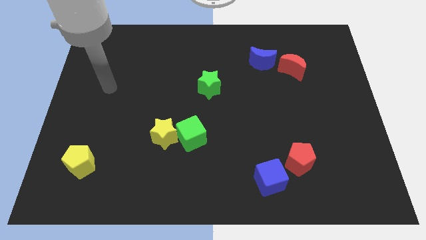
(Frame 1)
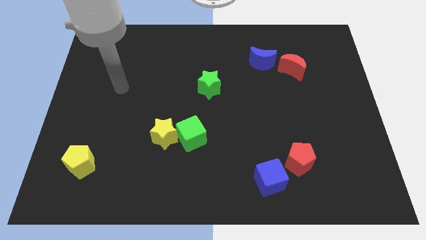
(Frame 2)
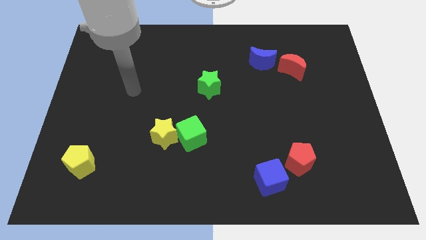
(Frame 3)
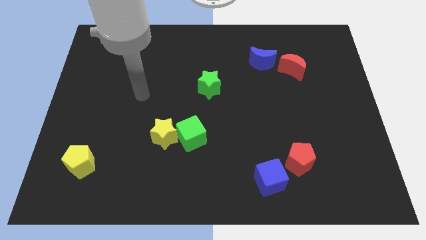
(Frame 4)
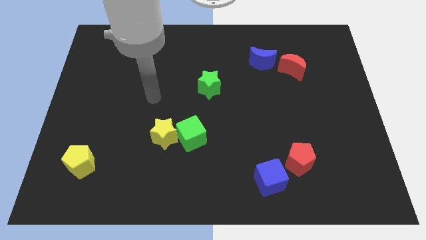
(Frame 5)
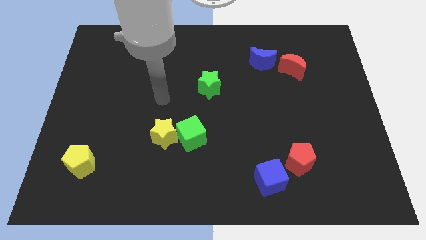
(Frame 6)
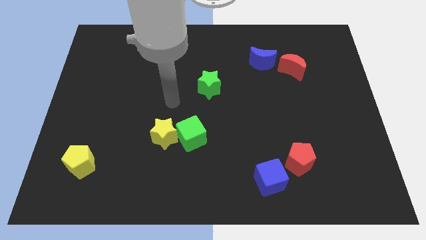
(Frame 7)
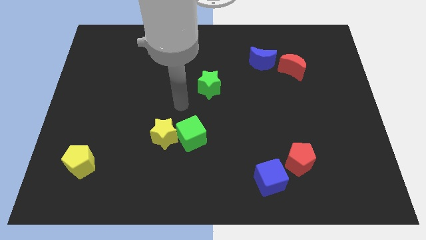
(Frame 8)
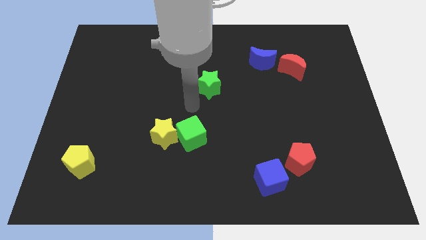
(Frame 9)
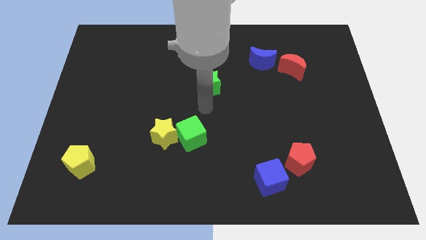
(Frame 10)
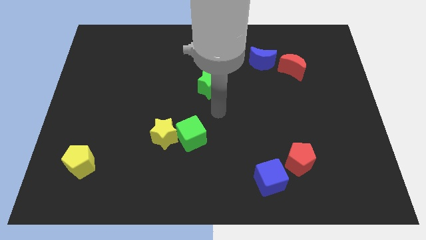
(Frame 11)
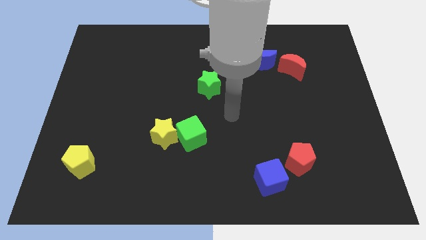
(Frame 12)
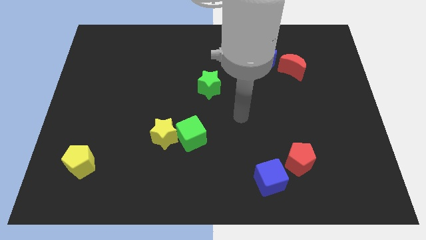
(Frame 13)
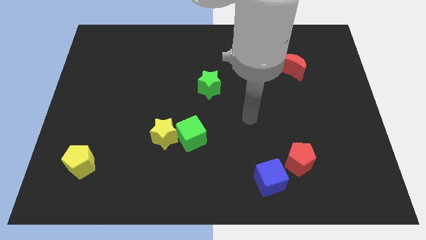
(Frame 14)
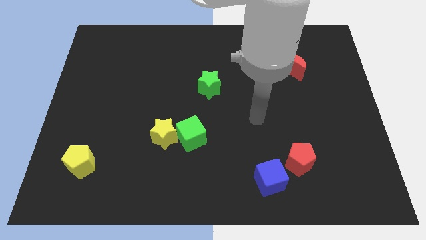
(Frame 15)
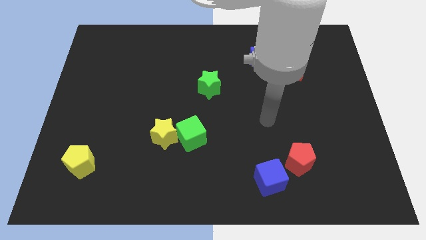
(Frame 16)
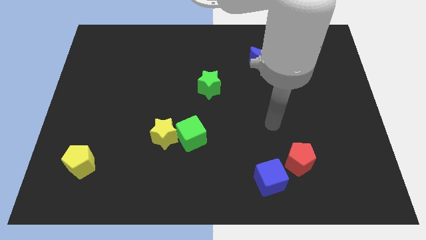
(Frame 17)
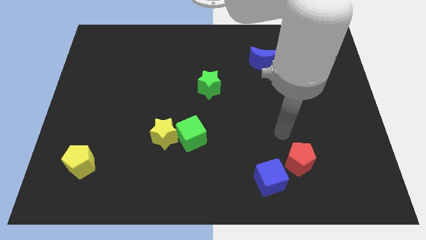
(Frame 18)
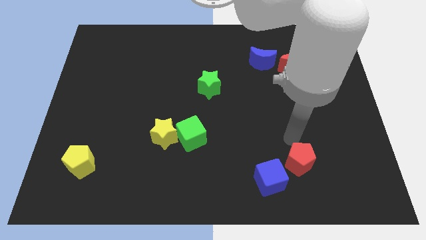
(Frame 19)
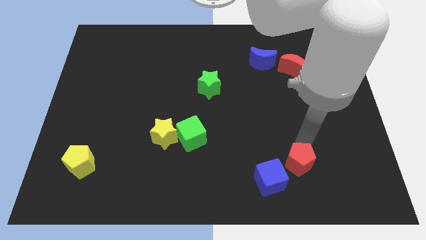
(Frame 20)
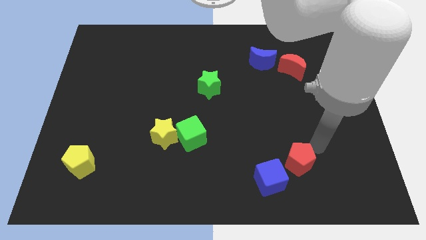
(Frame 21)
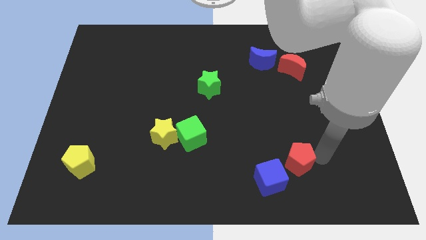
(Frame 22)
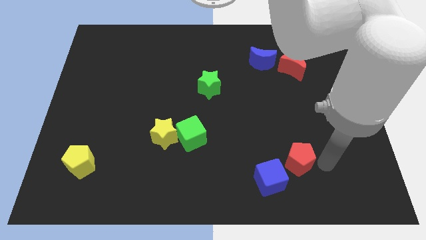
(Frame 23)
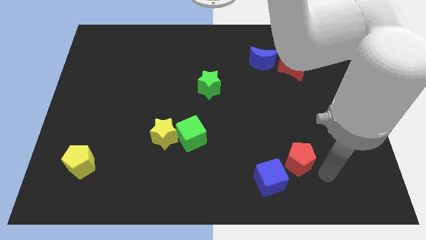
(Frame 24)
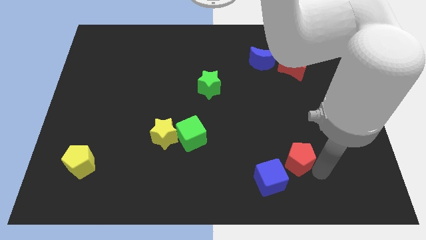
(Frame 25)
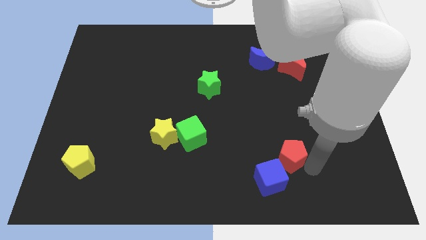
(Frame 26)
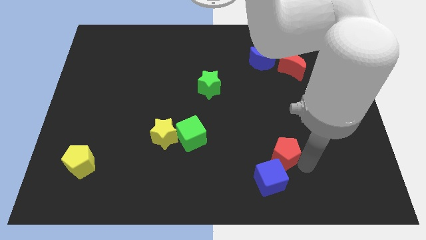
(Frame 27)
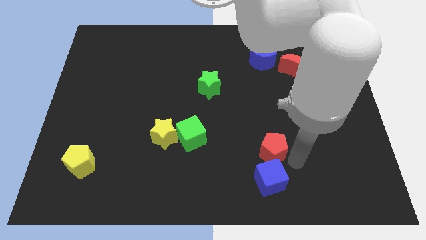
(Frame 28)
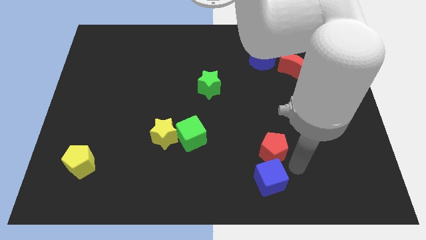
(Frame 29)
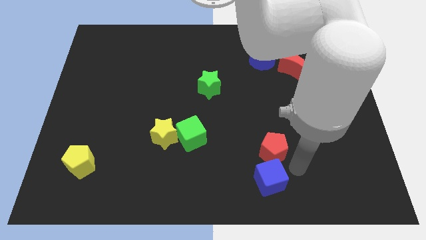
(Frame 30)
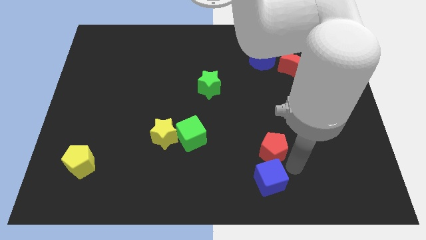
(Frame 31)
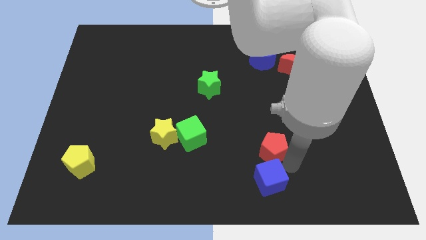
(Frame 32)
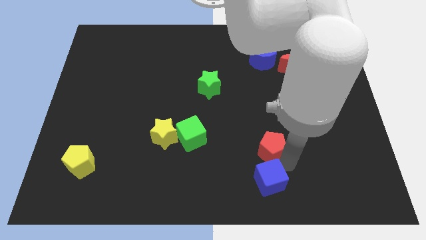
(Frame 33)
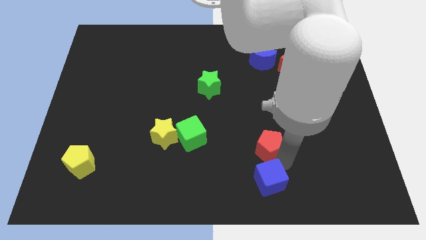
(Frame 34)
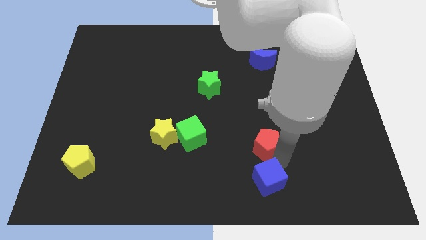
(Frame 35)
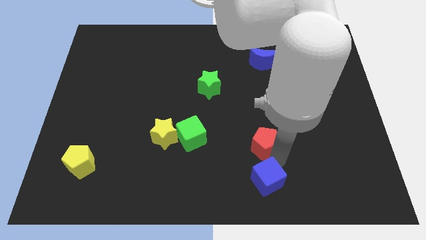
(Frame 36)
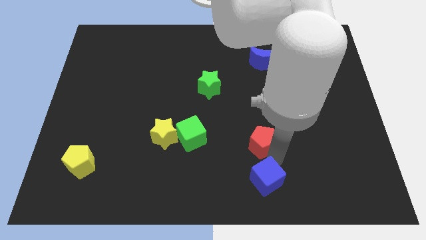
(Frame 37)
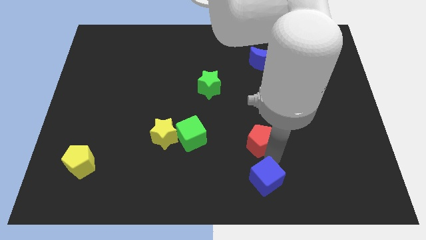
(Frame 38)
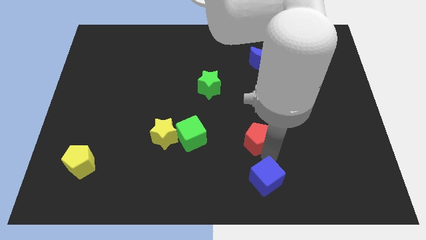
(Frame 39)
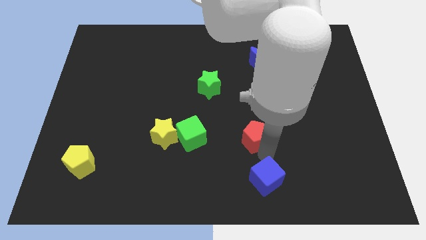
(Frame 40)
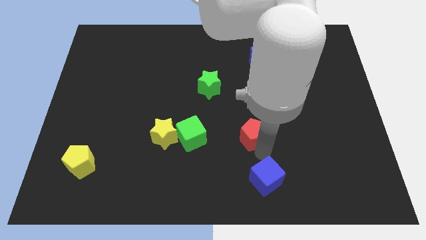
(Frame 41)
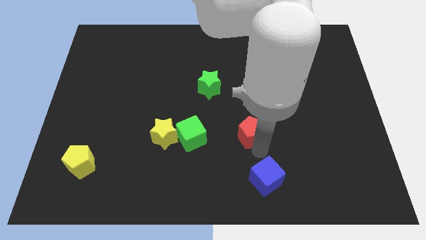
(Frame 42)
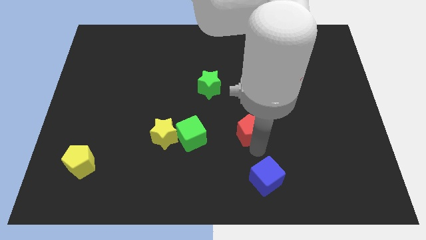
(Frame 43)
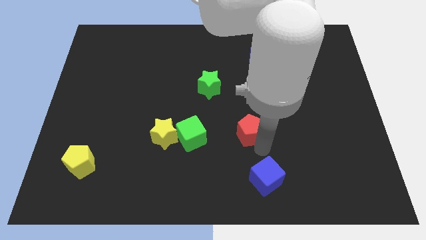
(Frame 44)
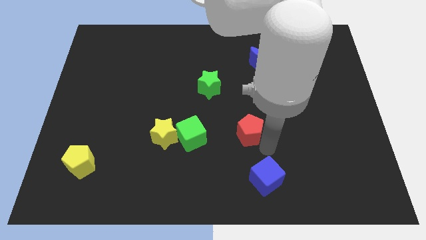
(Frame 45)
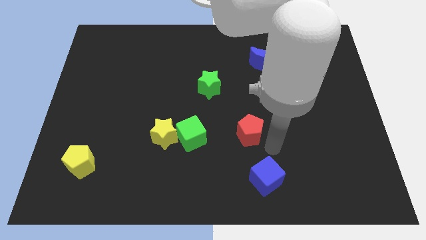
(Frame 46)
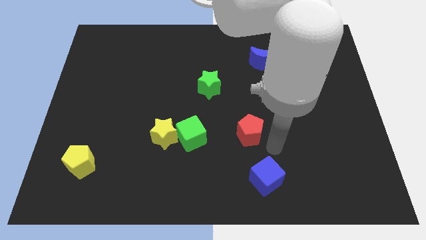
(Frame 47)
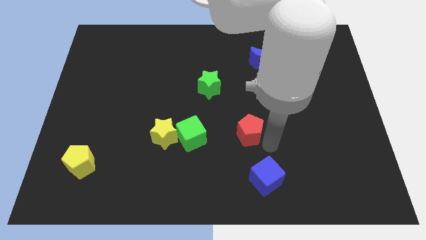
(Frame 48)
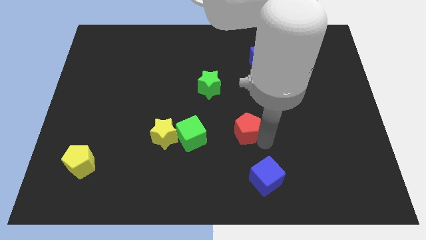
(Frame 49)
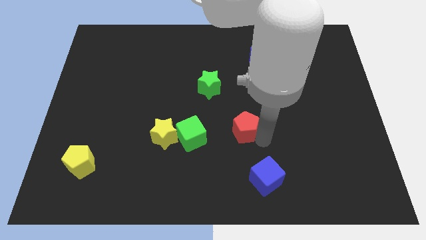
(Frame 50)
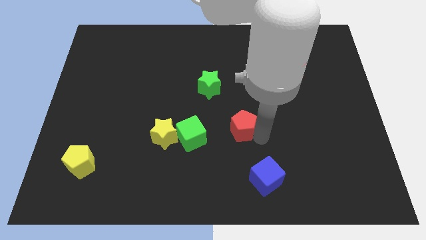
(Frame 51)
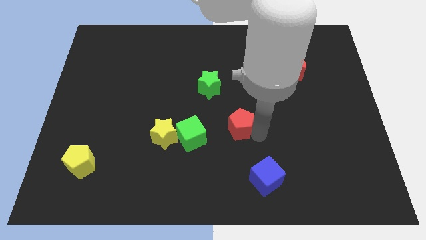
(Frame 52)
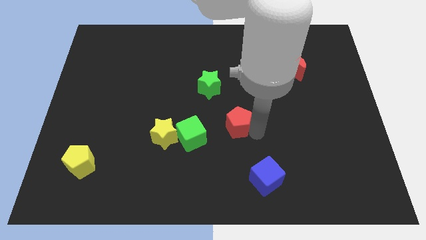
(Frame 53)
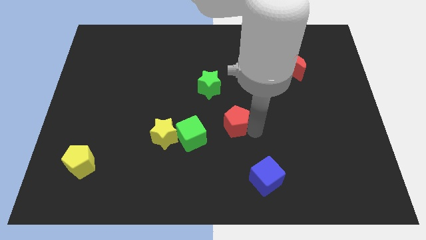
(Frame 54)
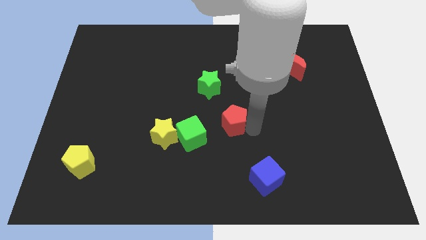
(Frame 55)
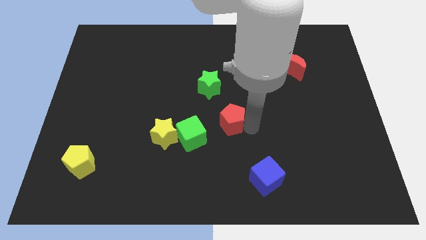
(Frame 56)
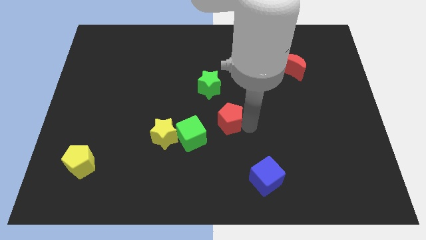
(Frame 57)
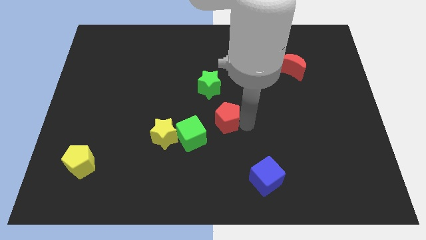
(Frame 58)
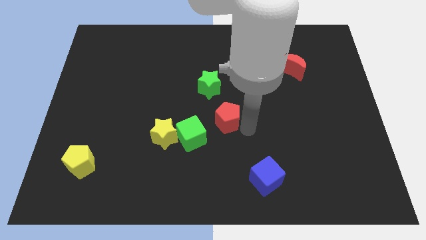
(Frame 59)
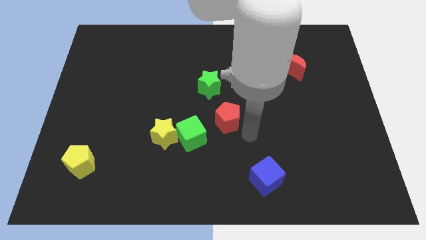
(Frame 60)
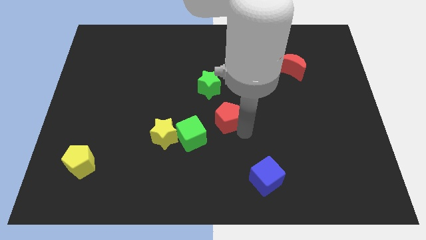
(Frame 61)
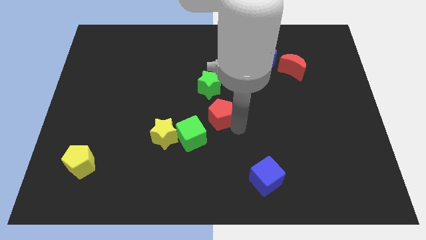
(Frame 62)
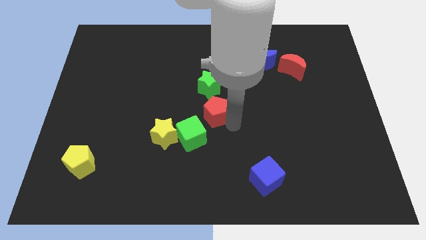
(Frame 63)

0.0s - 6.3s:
push the red pentagon diagonally up and to the left

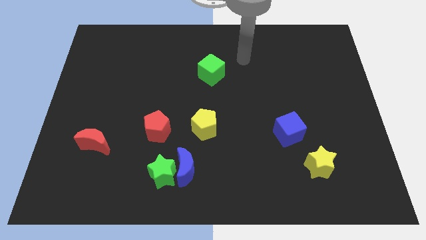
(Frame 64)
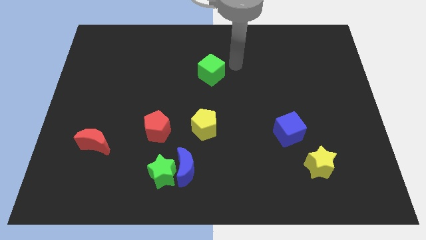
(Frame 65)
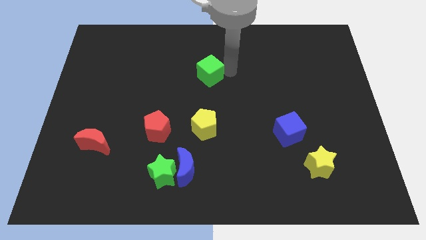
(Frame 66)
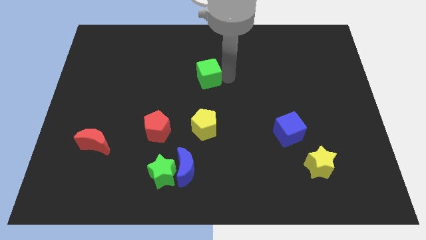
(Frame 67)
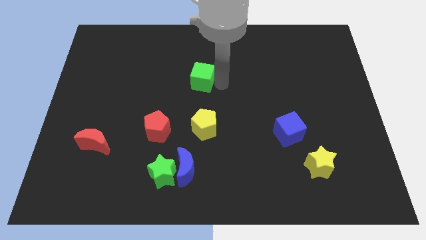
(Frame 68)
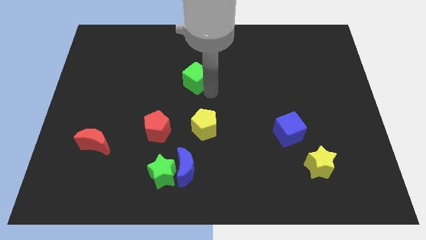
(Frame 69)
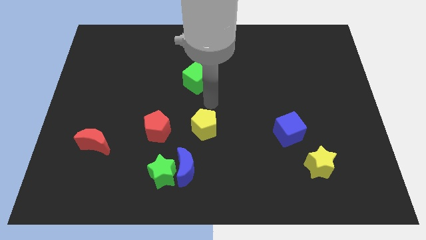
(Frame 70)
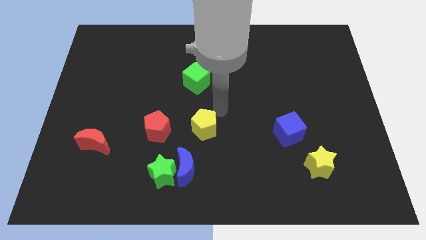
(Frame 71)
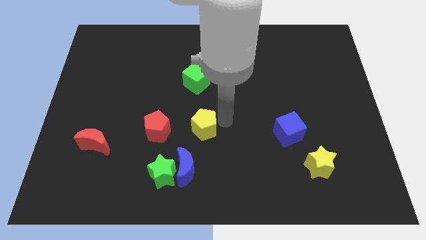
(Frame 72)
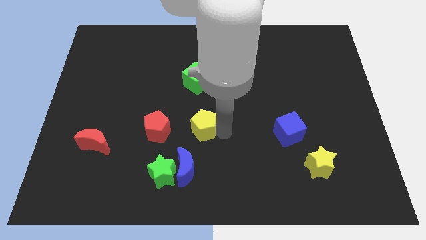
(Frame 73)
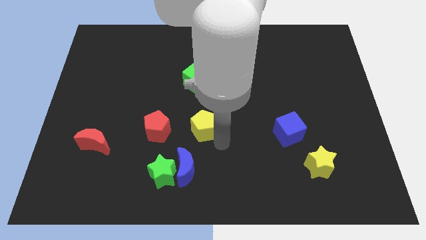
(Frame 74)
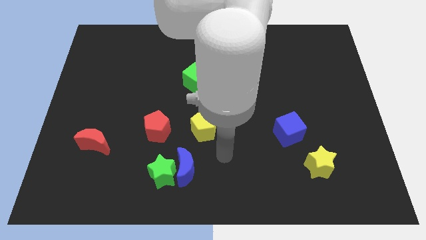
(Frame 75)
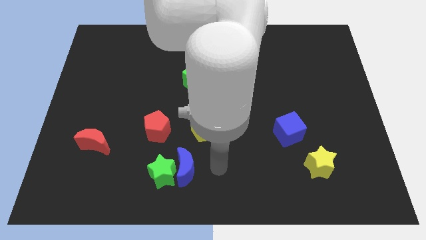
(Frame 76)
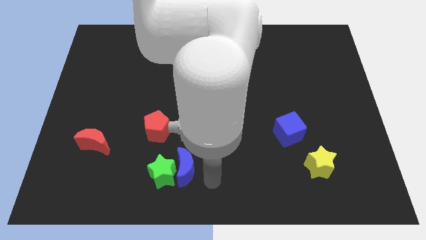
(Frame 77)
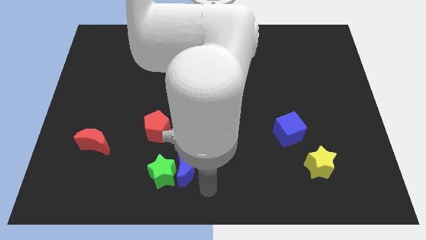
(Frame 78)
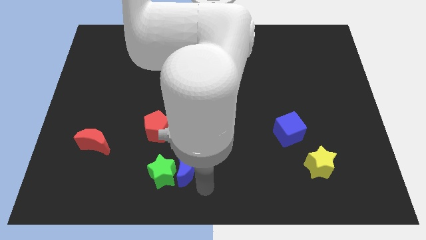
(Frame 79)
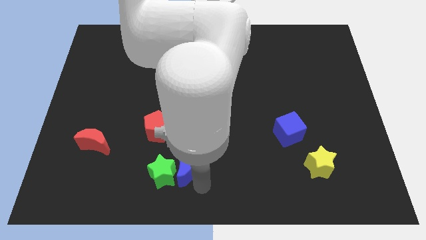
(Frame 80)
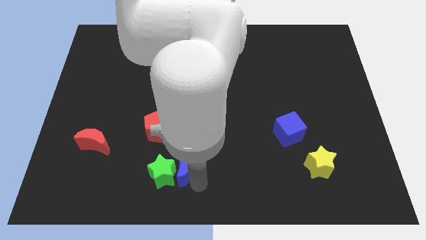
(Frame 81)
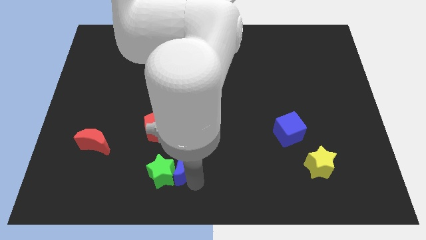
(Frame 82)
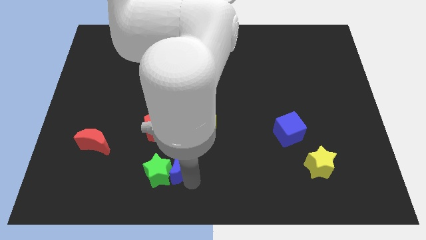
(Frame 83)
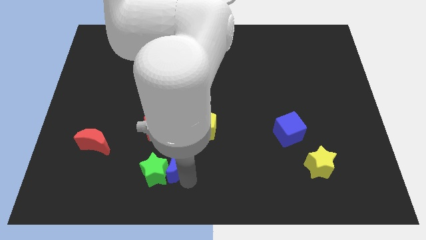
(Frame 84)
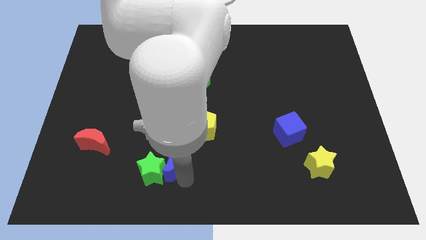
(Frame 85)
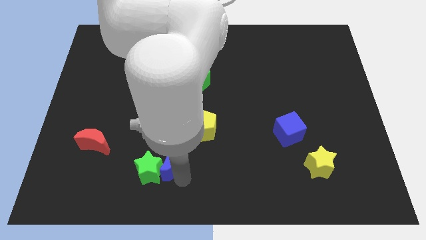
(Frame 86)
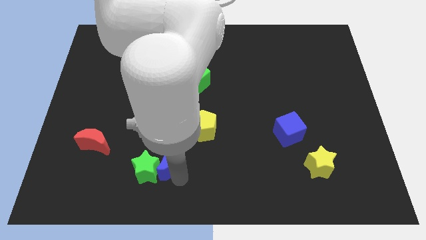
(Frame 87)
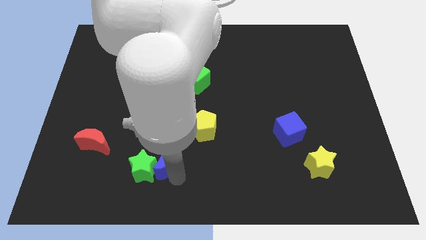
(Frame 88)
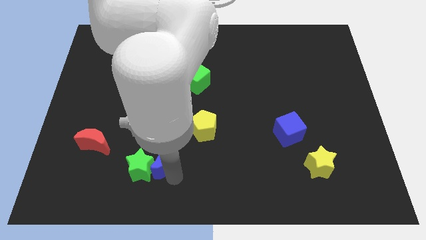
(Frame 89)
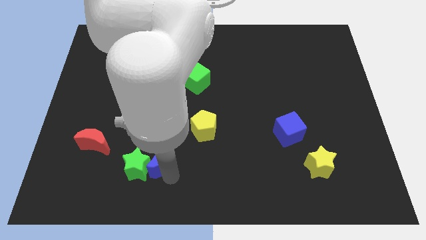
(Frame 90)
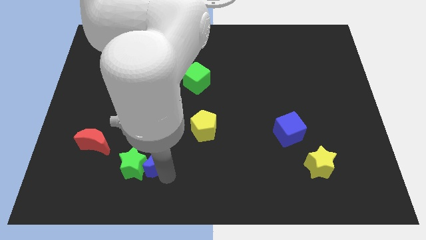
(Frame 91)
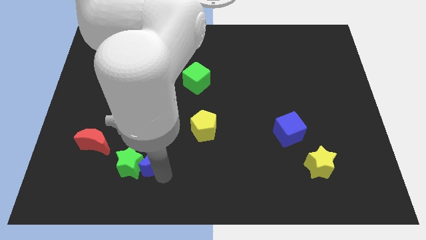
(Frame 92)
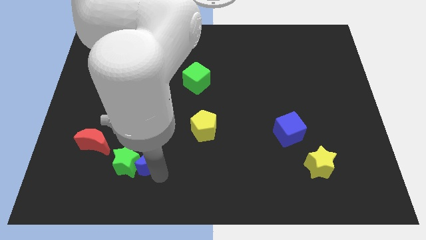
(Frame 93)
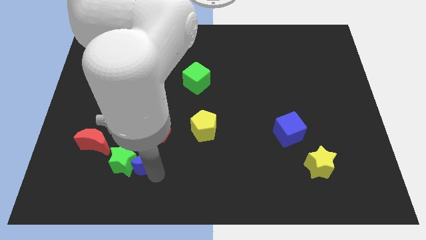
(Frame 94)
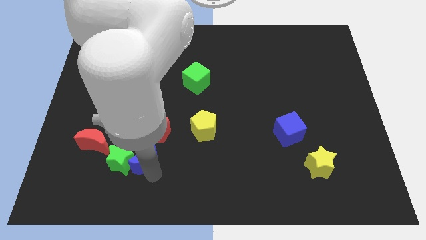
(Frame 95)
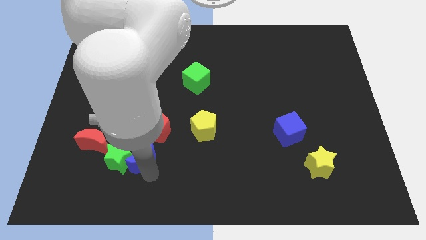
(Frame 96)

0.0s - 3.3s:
move the blue moon diagonally upwards and left somewhat
